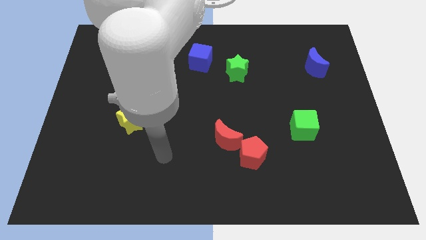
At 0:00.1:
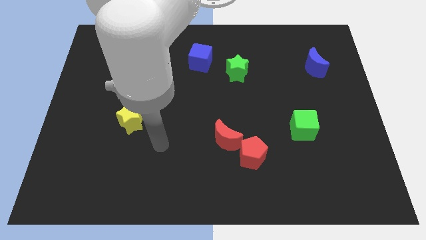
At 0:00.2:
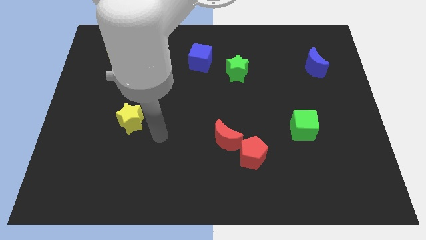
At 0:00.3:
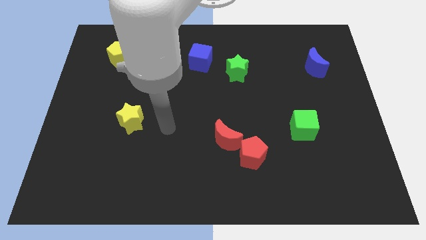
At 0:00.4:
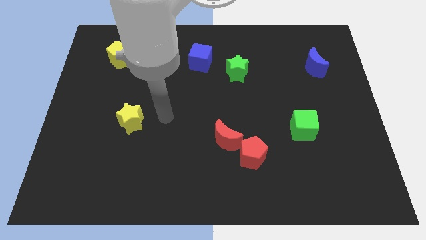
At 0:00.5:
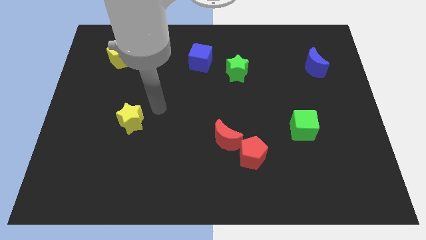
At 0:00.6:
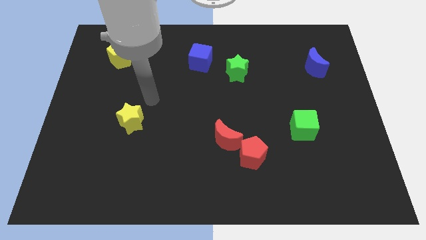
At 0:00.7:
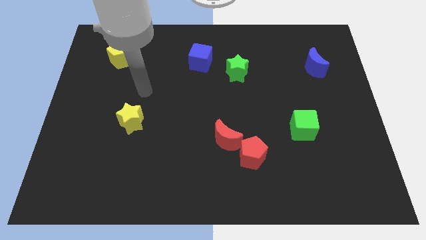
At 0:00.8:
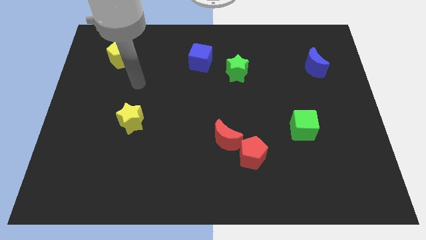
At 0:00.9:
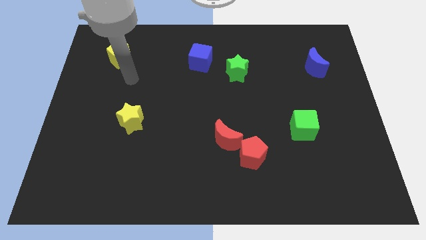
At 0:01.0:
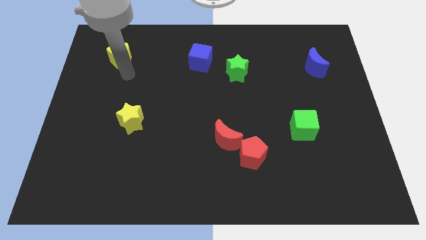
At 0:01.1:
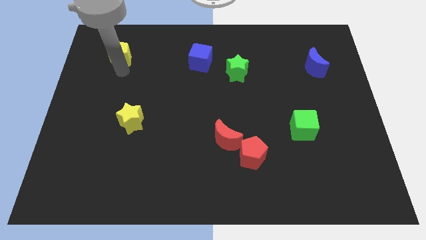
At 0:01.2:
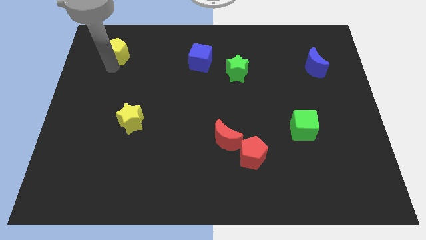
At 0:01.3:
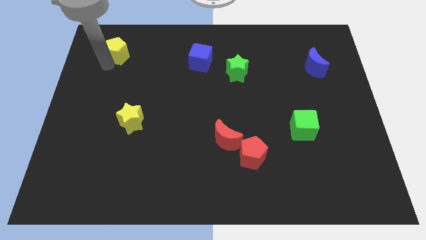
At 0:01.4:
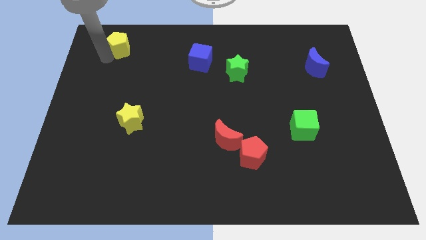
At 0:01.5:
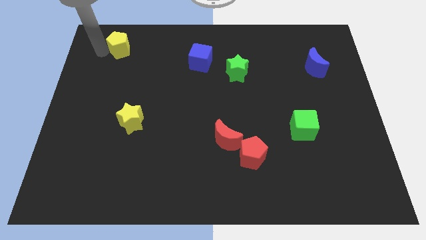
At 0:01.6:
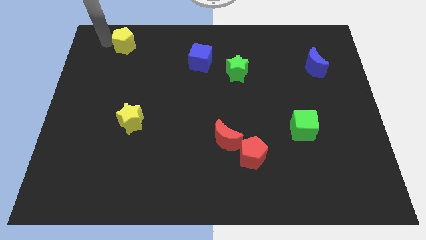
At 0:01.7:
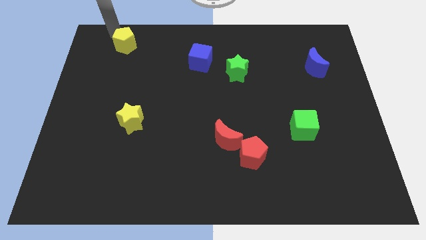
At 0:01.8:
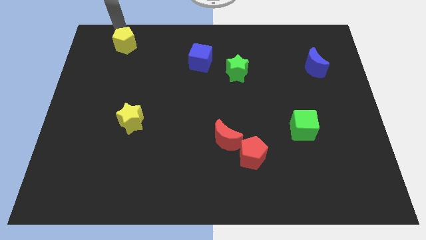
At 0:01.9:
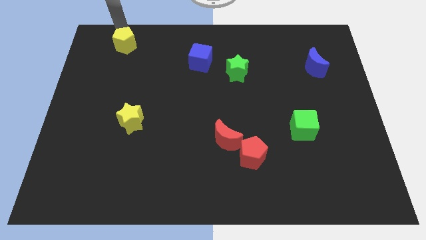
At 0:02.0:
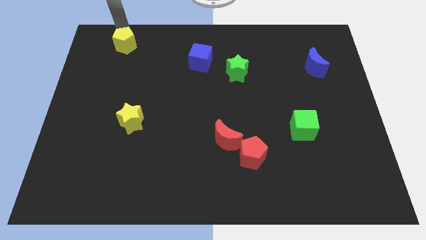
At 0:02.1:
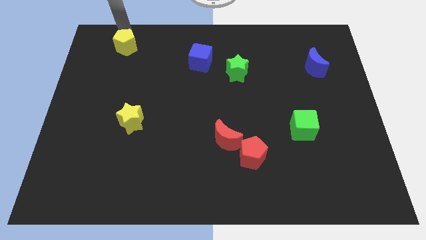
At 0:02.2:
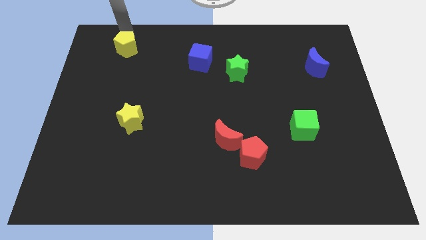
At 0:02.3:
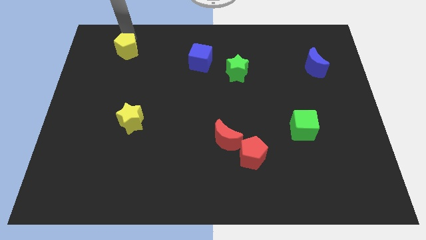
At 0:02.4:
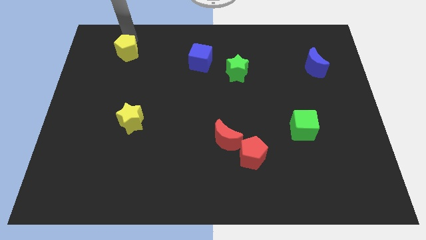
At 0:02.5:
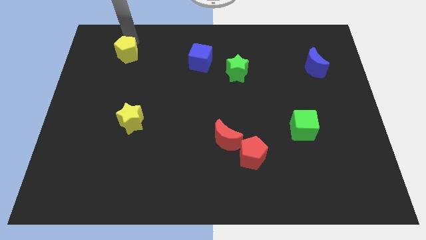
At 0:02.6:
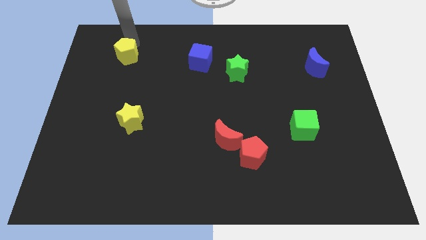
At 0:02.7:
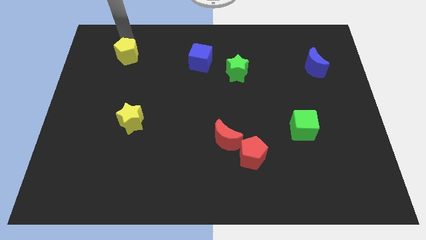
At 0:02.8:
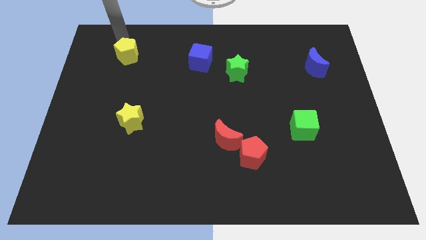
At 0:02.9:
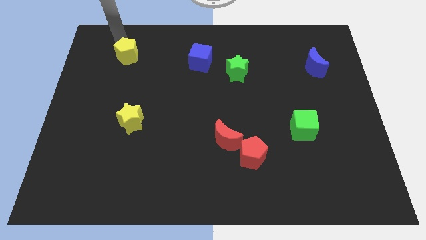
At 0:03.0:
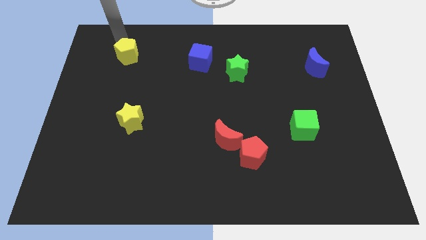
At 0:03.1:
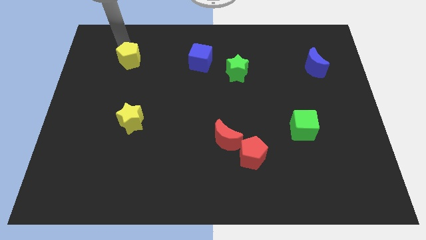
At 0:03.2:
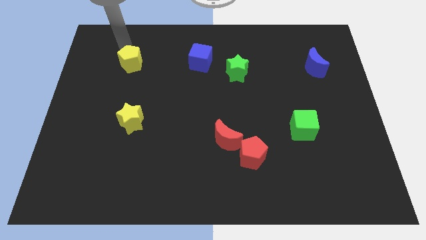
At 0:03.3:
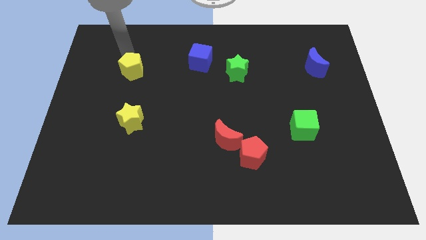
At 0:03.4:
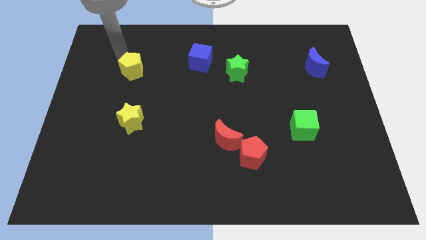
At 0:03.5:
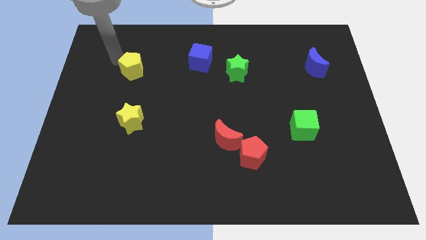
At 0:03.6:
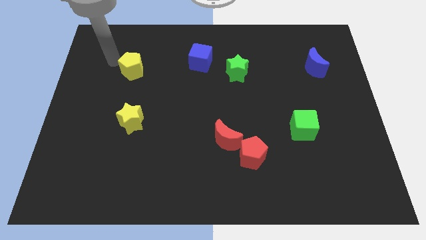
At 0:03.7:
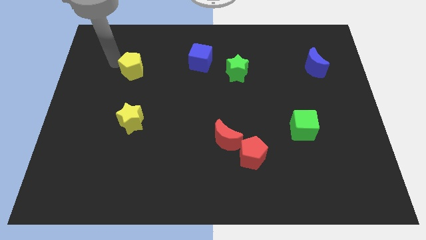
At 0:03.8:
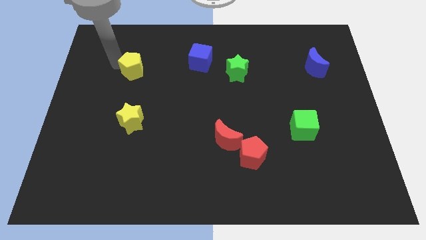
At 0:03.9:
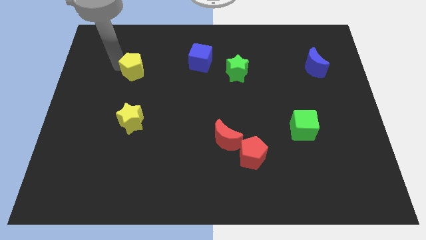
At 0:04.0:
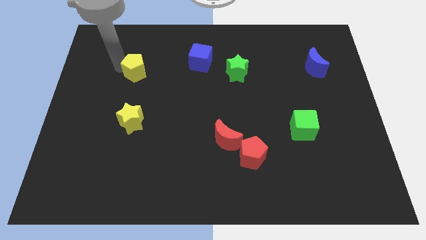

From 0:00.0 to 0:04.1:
slightly push the yellow pentagon diagonally down and right

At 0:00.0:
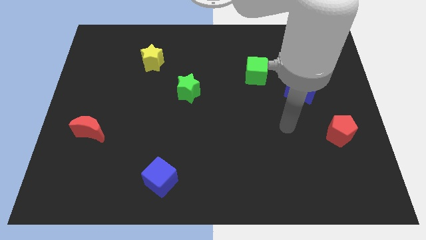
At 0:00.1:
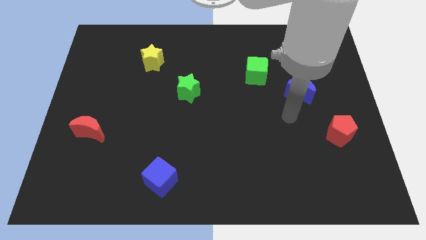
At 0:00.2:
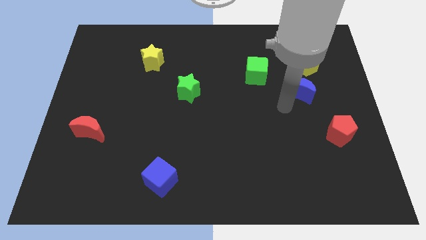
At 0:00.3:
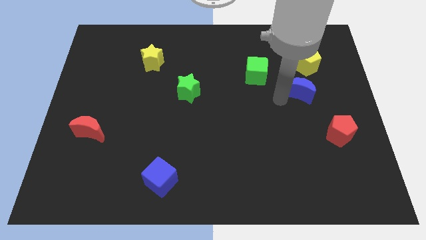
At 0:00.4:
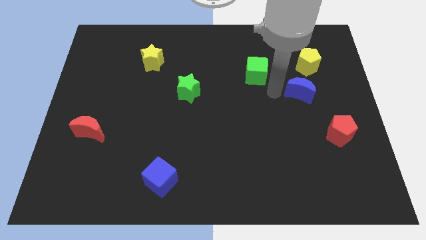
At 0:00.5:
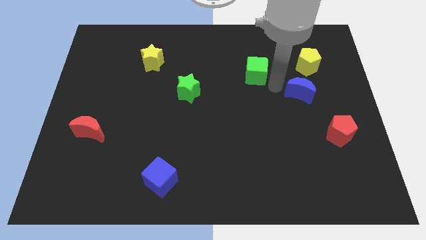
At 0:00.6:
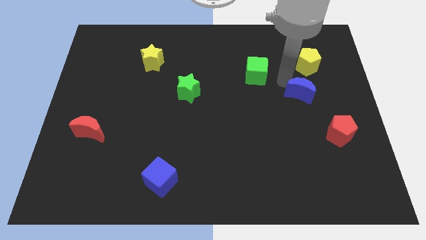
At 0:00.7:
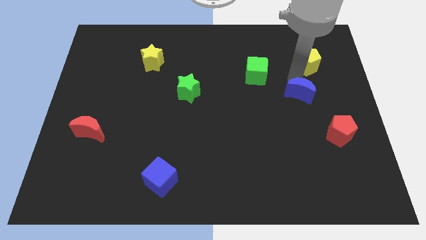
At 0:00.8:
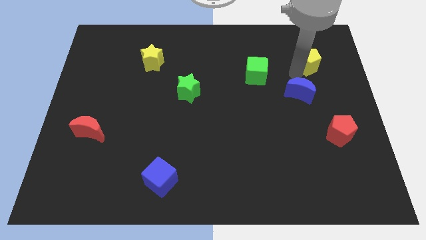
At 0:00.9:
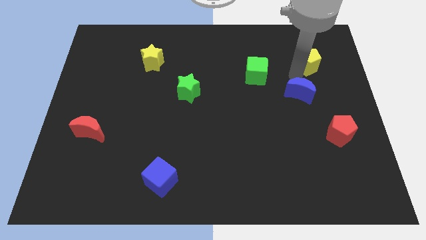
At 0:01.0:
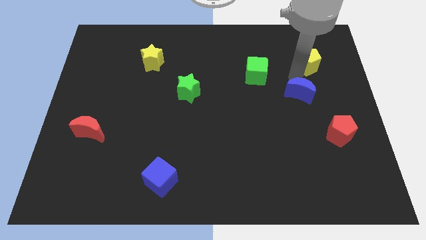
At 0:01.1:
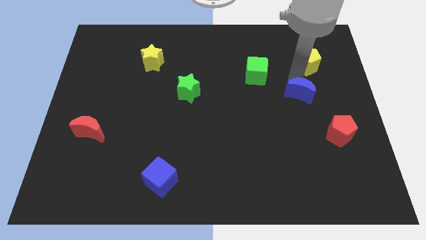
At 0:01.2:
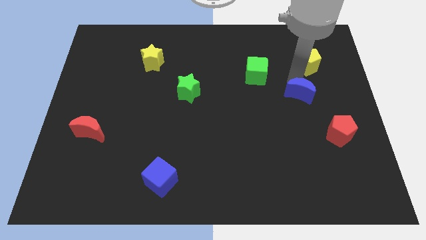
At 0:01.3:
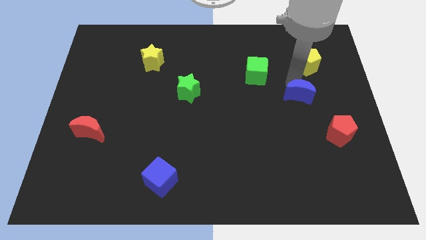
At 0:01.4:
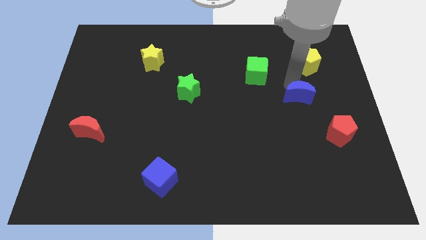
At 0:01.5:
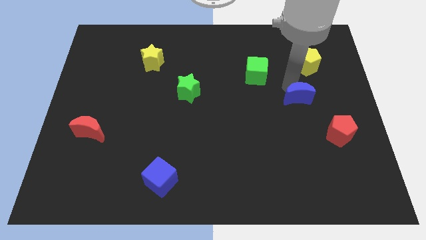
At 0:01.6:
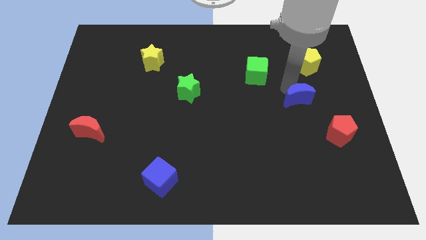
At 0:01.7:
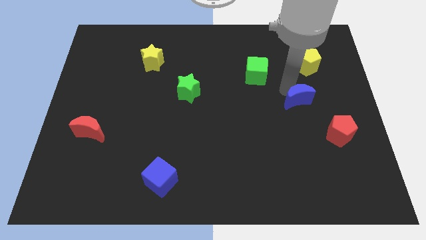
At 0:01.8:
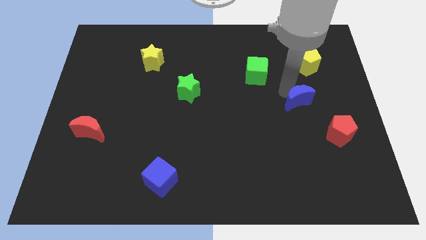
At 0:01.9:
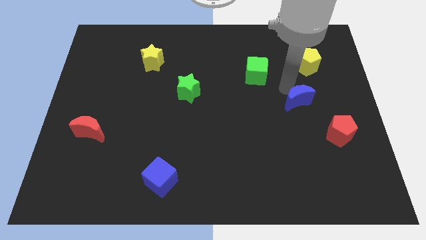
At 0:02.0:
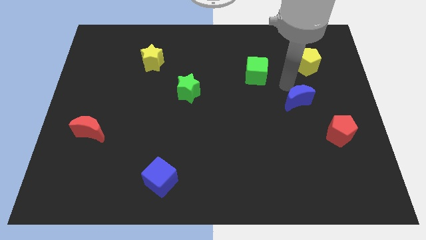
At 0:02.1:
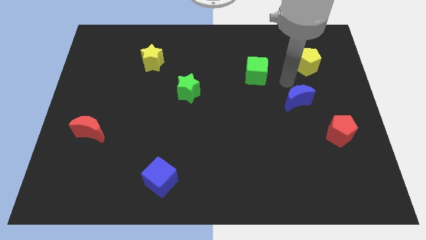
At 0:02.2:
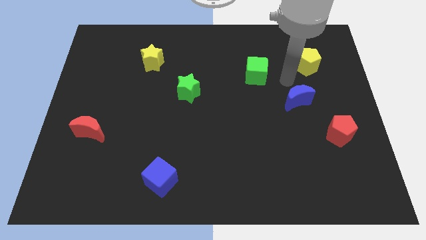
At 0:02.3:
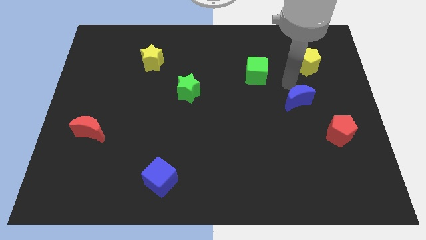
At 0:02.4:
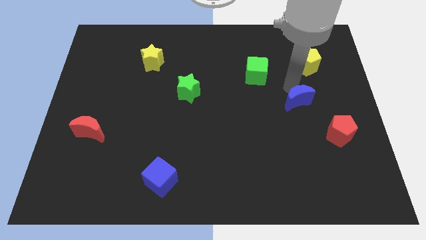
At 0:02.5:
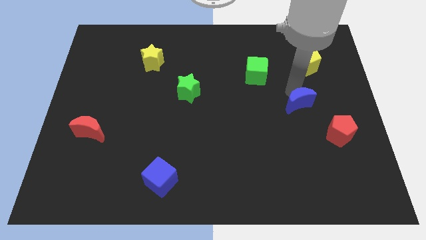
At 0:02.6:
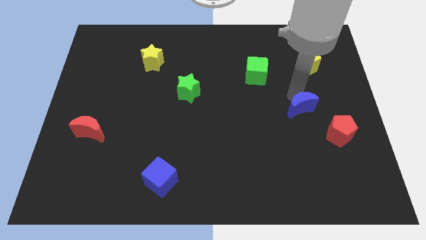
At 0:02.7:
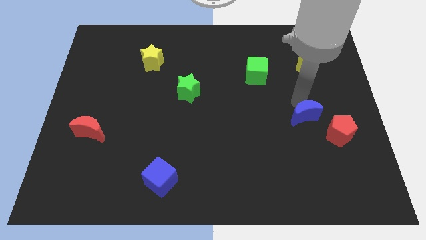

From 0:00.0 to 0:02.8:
slide the blue moon downwards a bit

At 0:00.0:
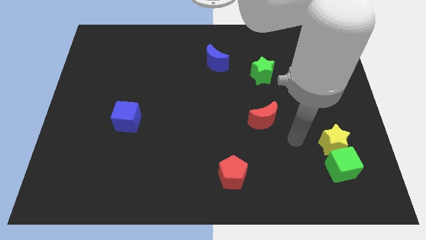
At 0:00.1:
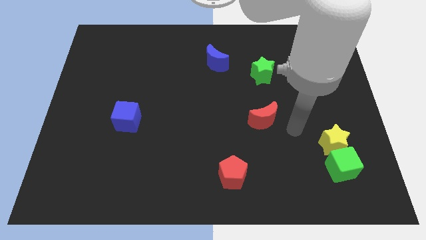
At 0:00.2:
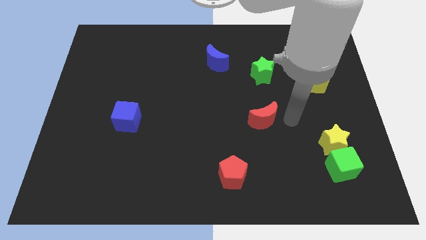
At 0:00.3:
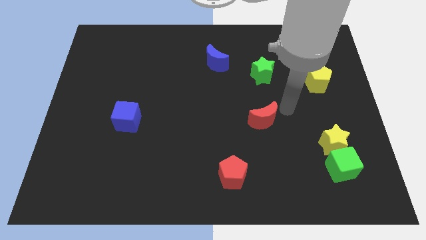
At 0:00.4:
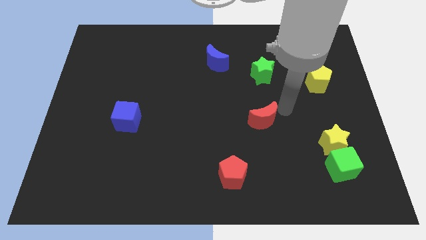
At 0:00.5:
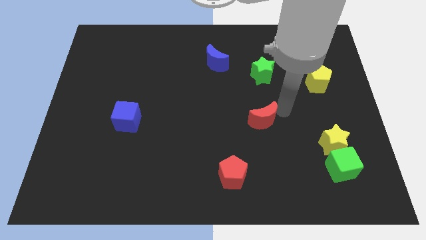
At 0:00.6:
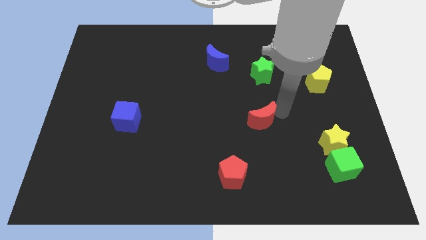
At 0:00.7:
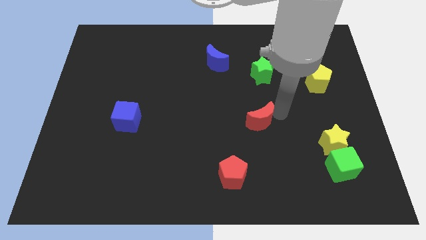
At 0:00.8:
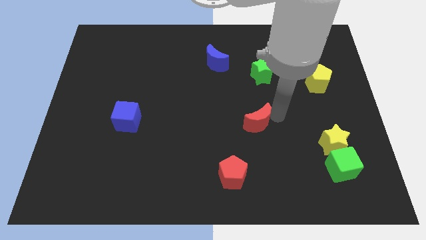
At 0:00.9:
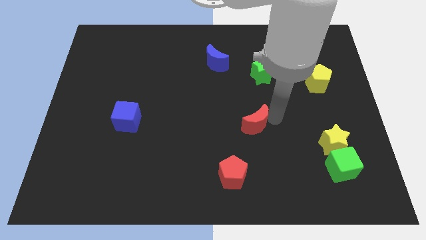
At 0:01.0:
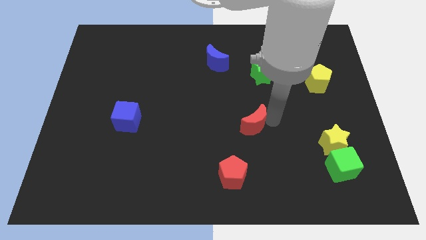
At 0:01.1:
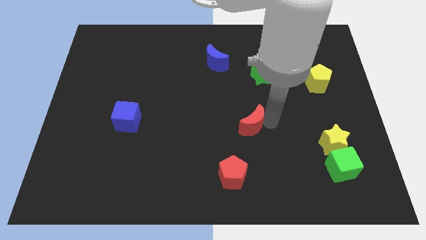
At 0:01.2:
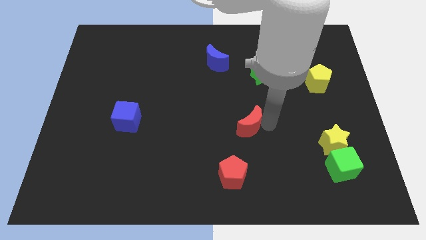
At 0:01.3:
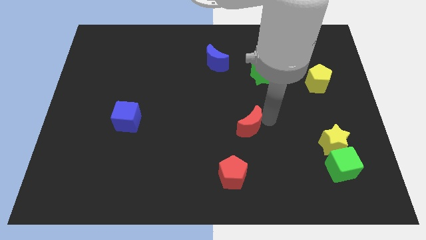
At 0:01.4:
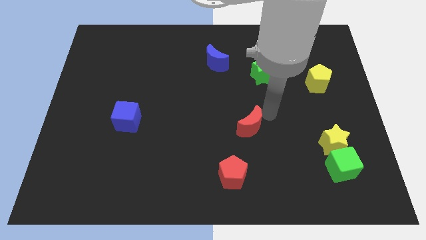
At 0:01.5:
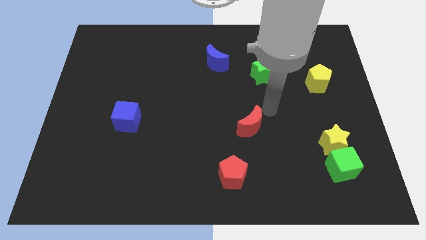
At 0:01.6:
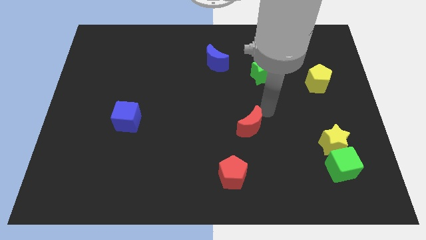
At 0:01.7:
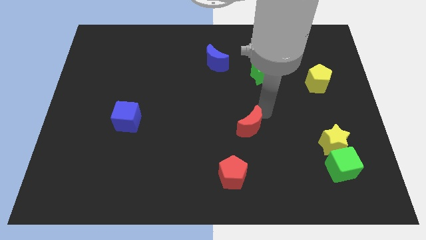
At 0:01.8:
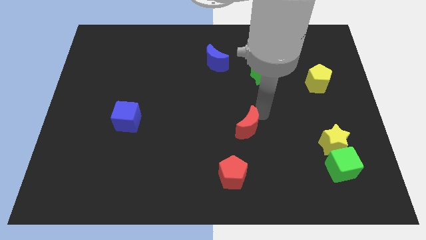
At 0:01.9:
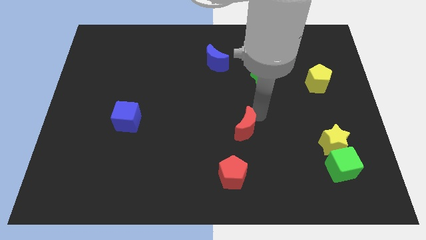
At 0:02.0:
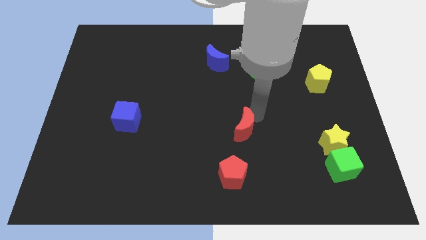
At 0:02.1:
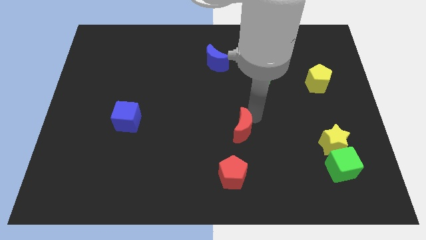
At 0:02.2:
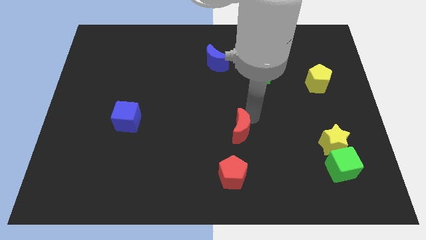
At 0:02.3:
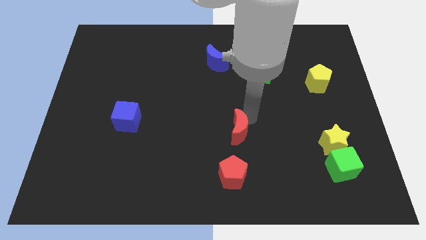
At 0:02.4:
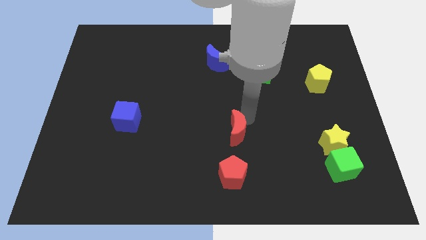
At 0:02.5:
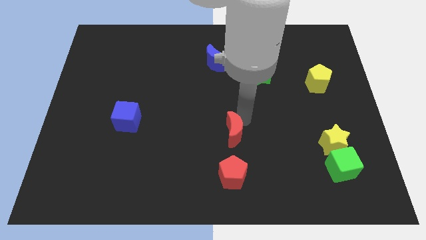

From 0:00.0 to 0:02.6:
slightly move the red moon downwards and left diagonally
